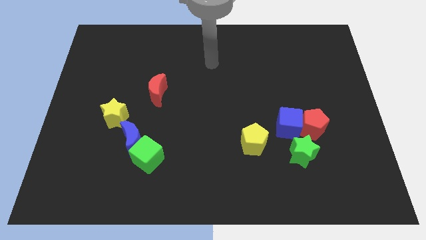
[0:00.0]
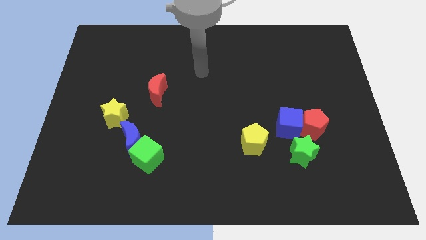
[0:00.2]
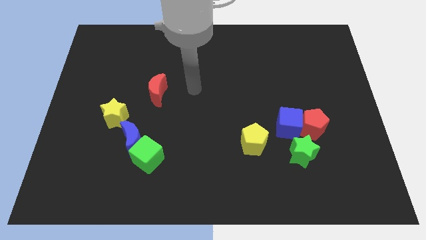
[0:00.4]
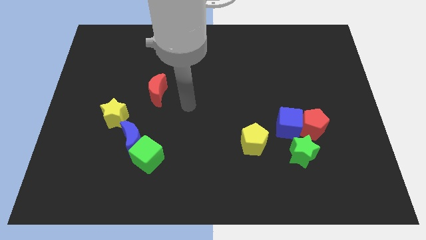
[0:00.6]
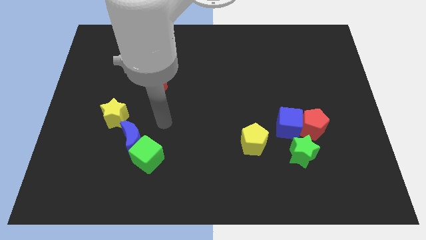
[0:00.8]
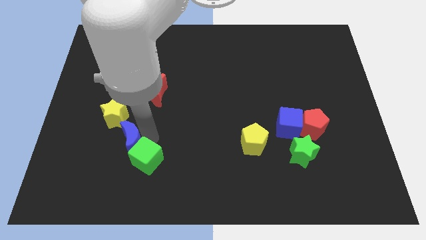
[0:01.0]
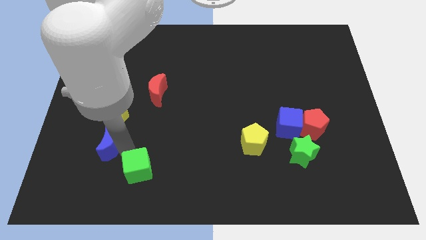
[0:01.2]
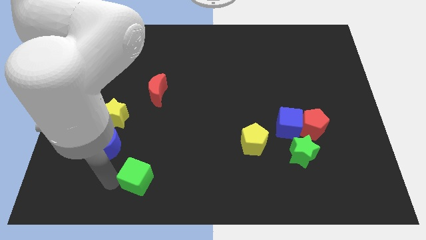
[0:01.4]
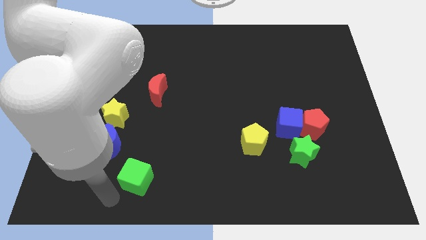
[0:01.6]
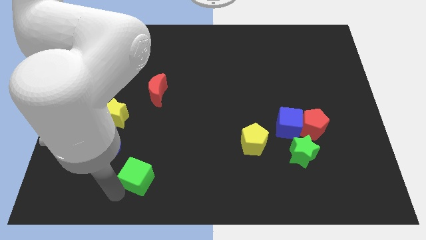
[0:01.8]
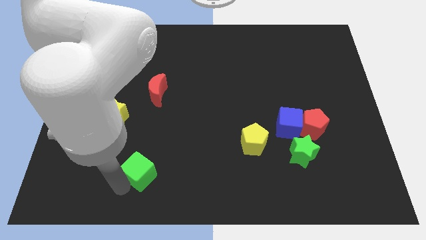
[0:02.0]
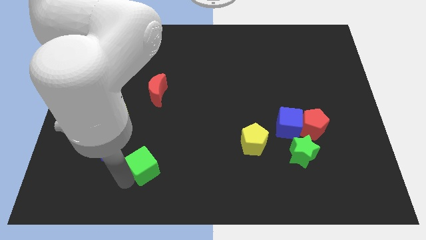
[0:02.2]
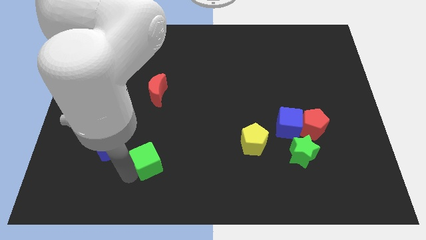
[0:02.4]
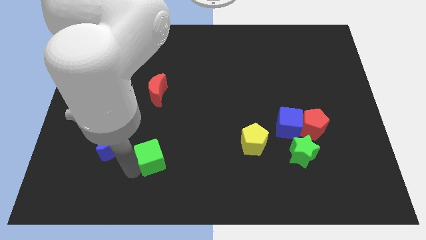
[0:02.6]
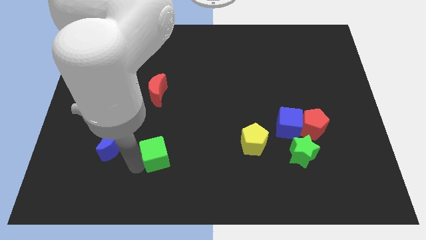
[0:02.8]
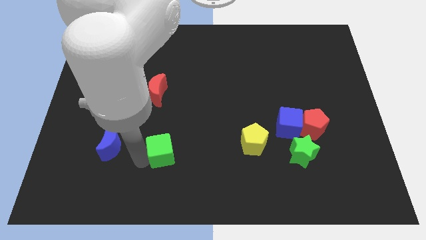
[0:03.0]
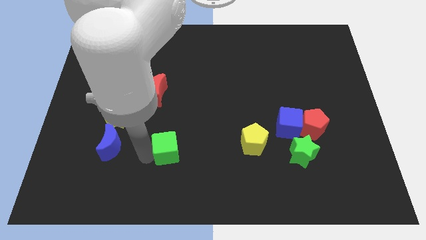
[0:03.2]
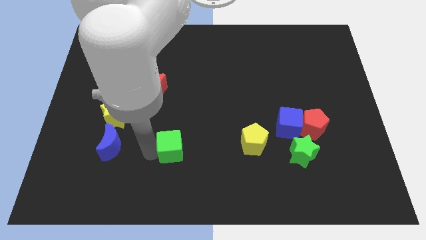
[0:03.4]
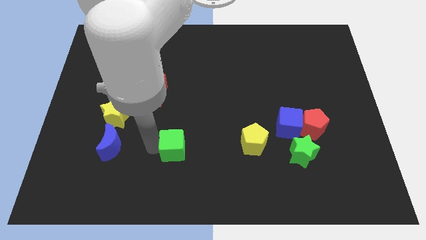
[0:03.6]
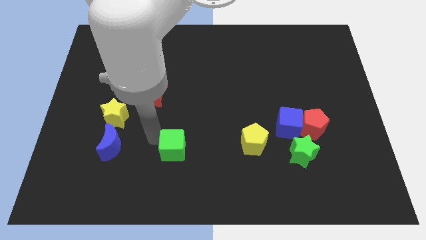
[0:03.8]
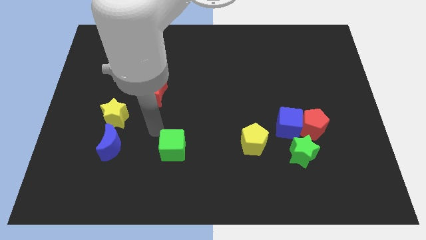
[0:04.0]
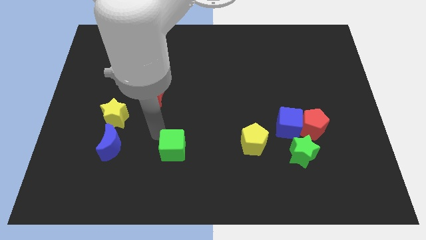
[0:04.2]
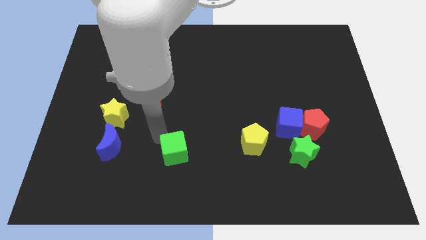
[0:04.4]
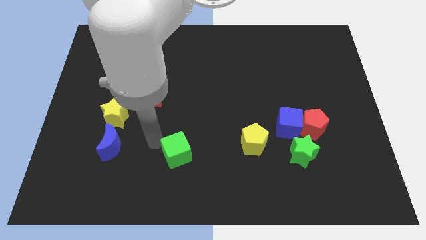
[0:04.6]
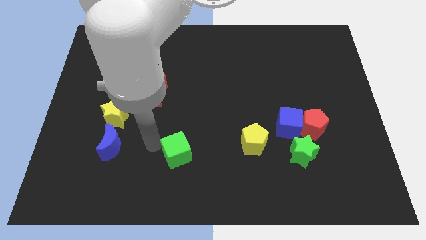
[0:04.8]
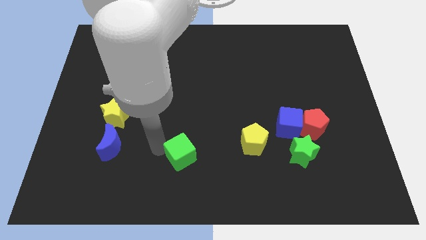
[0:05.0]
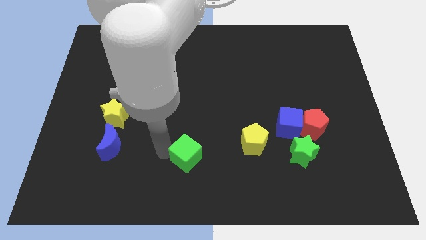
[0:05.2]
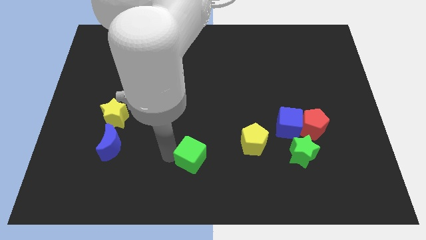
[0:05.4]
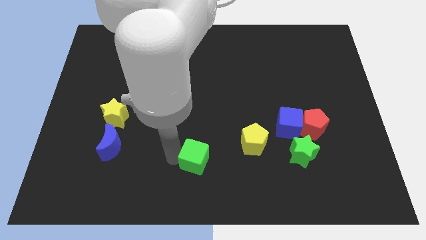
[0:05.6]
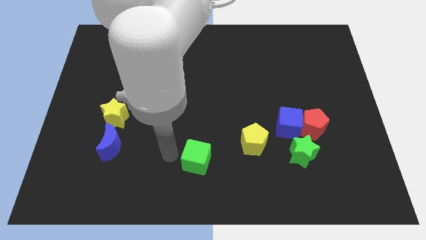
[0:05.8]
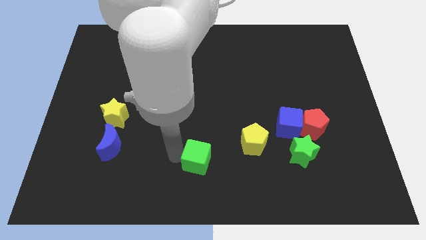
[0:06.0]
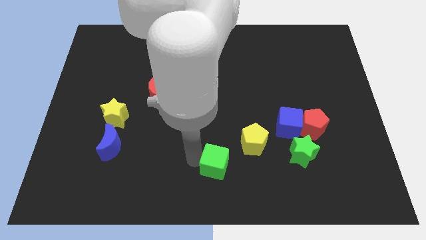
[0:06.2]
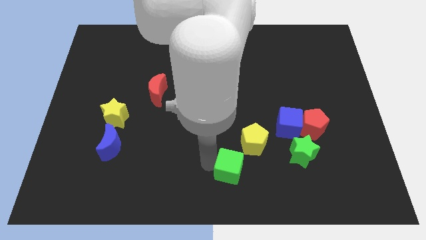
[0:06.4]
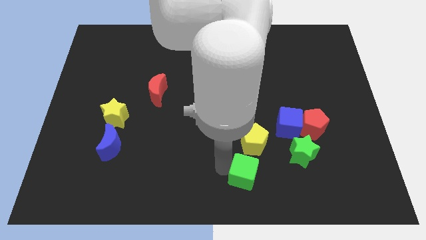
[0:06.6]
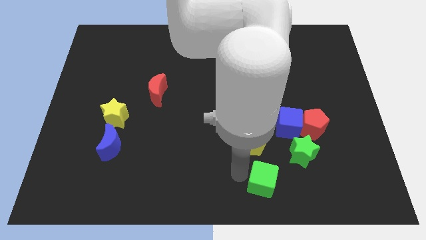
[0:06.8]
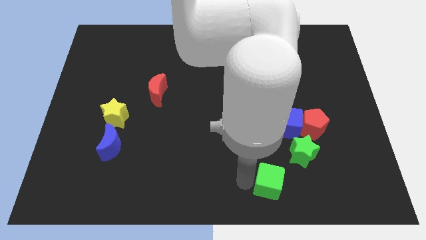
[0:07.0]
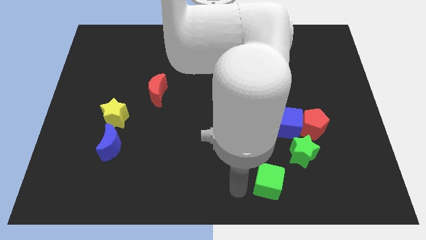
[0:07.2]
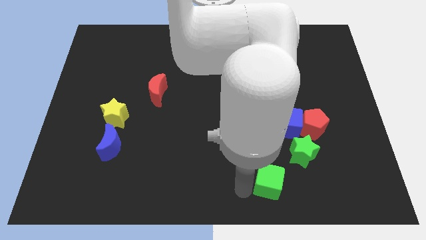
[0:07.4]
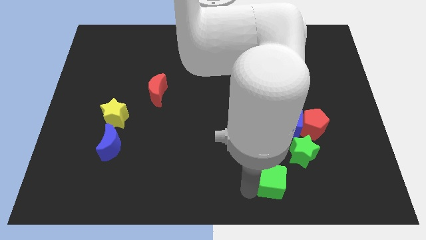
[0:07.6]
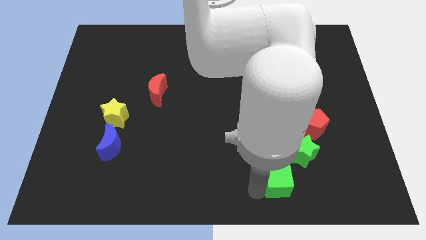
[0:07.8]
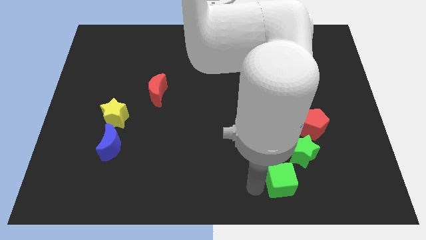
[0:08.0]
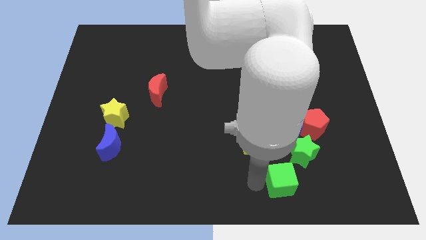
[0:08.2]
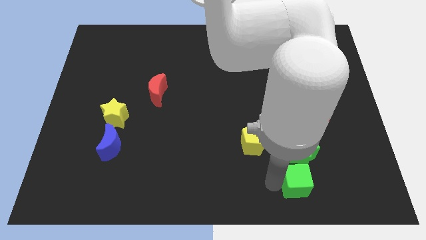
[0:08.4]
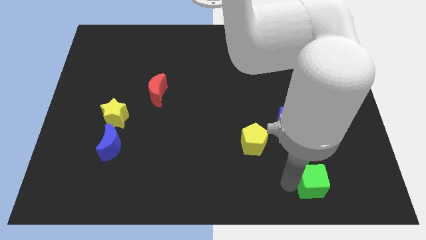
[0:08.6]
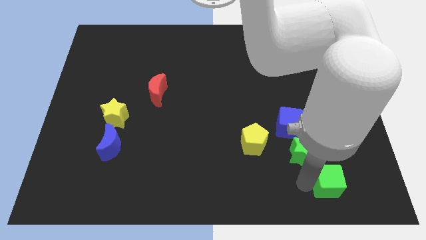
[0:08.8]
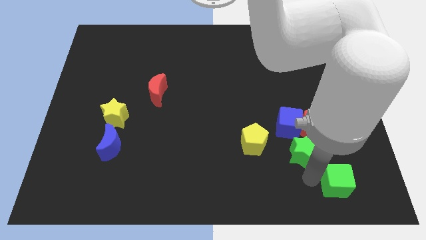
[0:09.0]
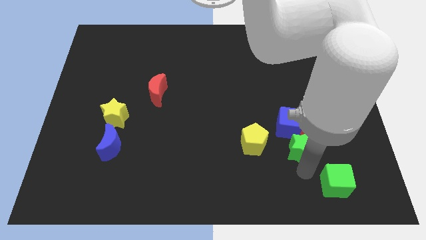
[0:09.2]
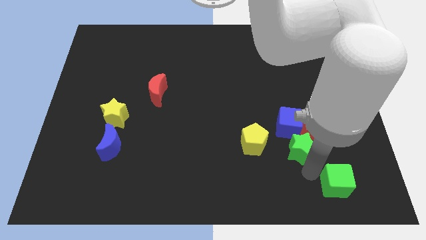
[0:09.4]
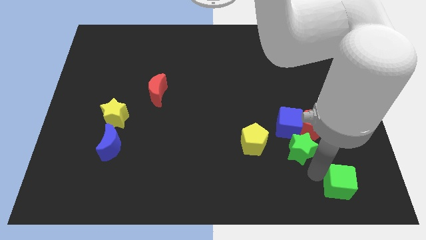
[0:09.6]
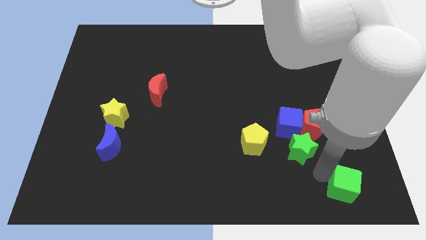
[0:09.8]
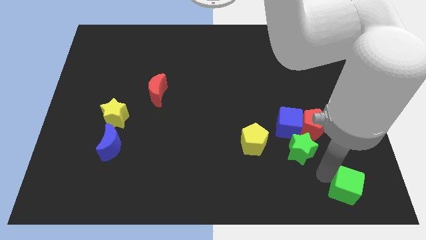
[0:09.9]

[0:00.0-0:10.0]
slide the green cube to the bottom right of the board

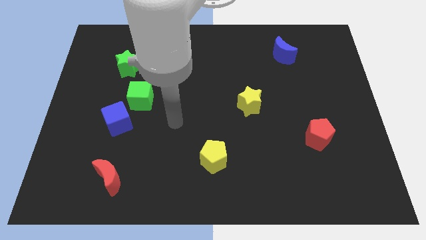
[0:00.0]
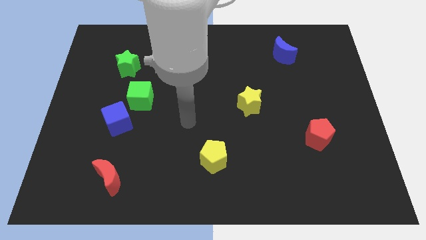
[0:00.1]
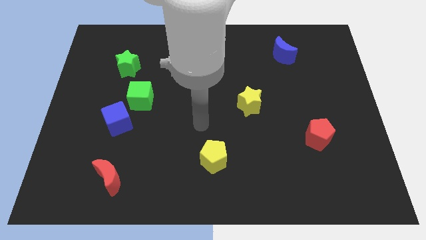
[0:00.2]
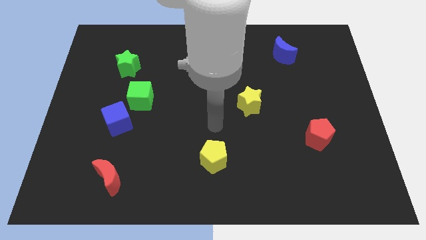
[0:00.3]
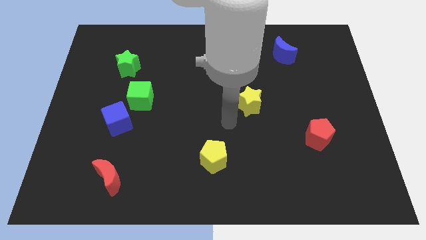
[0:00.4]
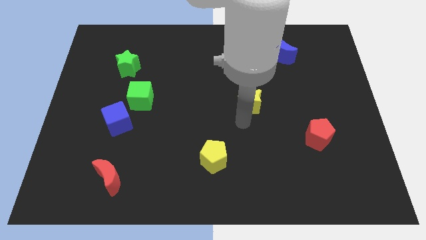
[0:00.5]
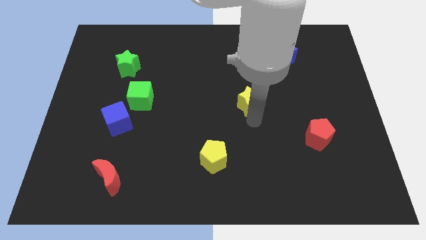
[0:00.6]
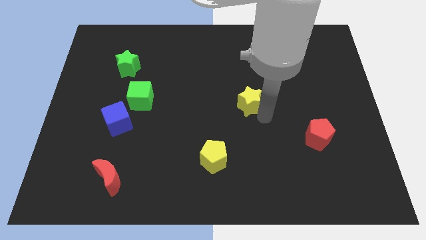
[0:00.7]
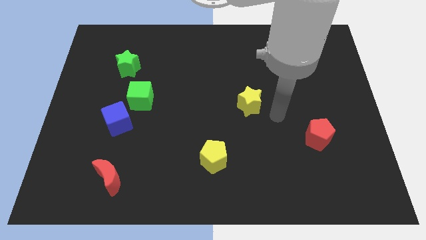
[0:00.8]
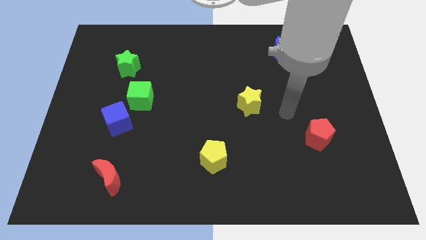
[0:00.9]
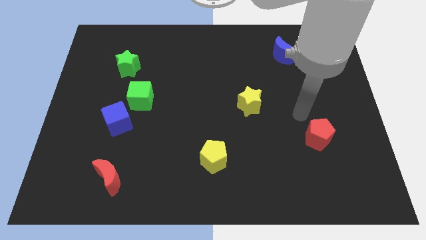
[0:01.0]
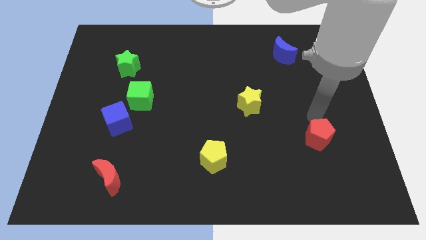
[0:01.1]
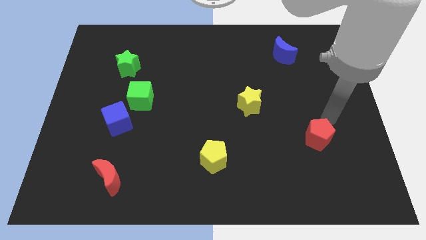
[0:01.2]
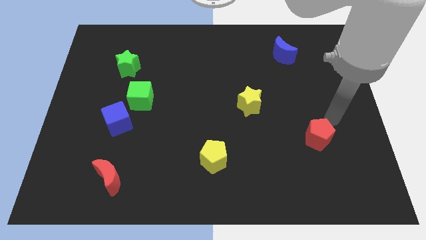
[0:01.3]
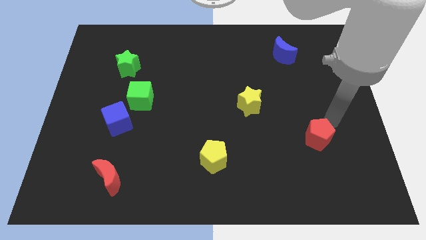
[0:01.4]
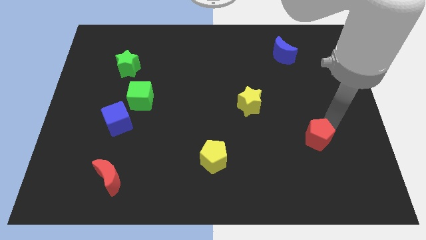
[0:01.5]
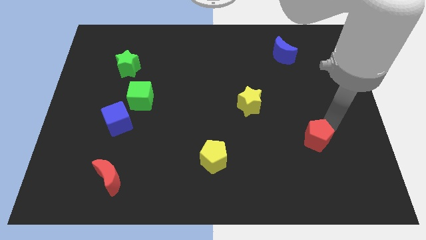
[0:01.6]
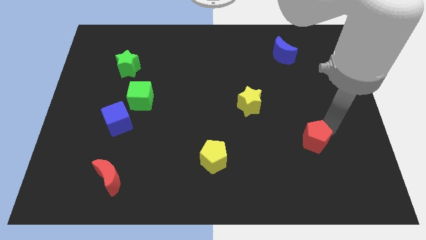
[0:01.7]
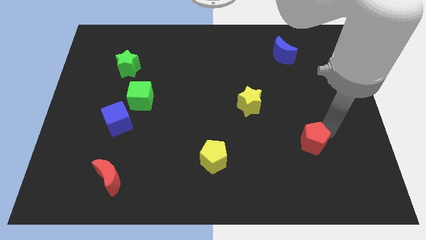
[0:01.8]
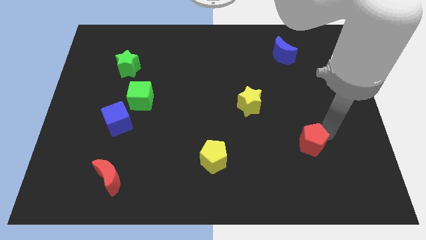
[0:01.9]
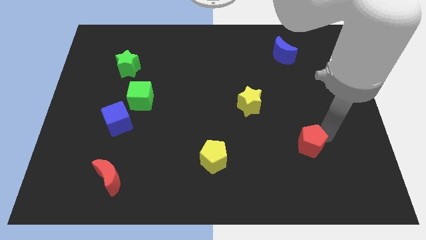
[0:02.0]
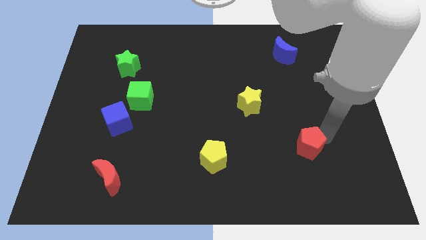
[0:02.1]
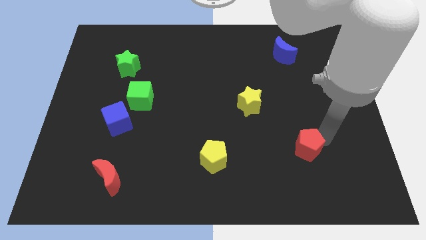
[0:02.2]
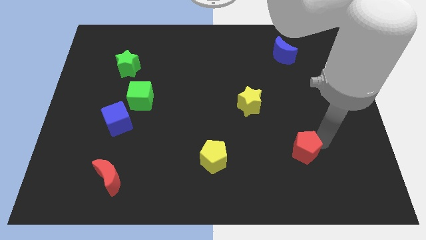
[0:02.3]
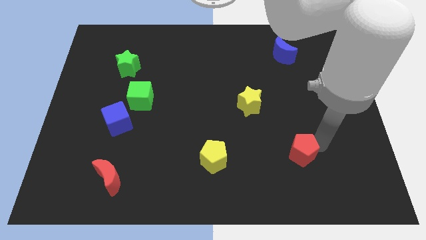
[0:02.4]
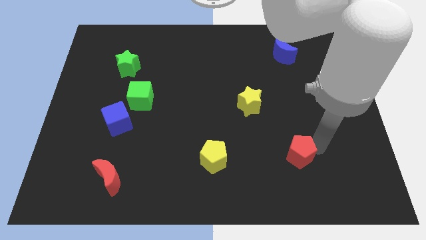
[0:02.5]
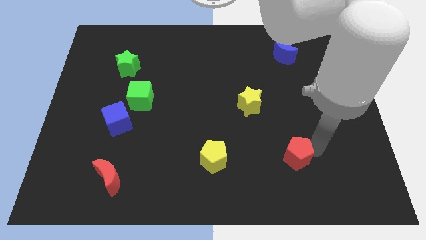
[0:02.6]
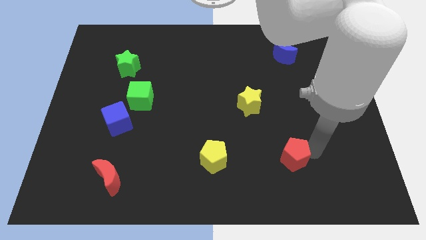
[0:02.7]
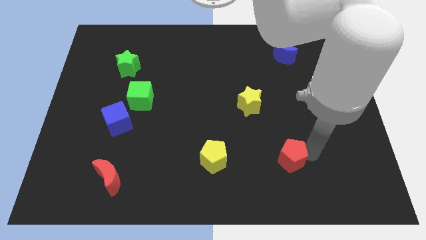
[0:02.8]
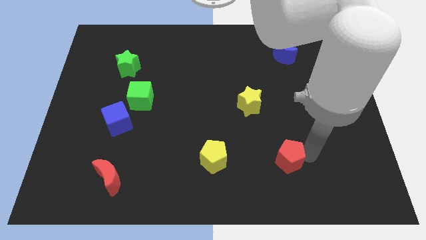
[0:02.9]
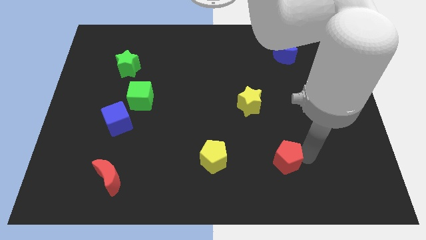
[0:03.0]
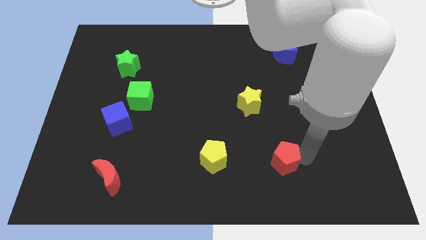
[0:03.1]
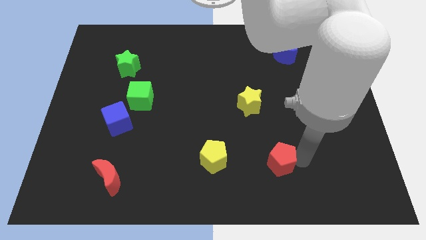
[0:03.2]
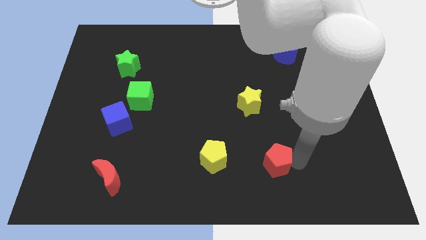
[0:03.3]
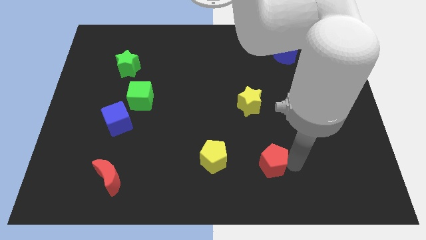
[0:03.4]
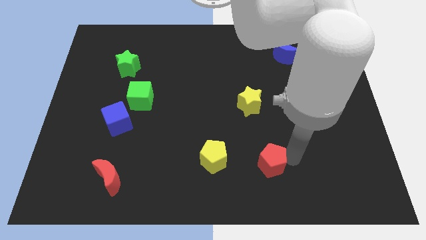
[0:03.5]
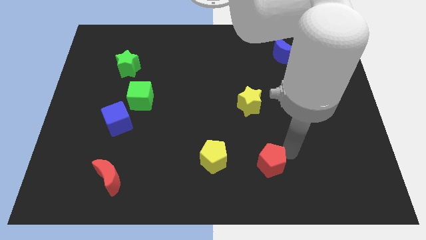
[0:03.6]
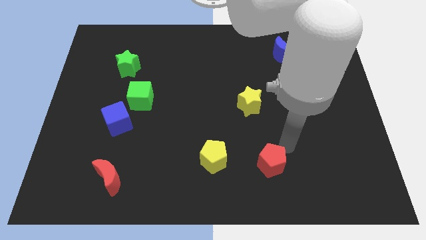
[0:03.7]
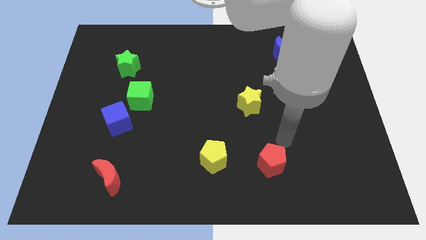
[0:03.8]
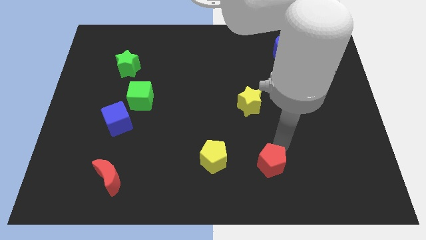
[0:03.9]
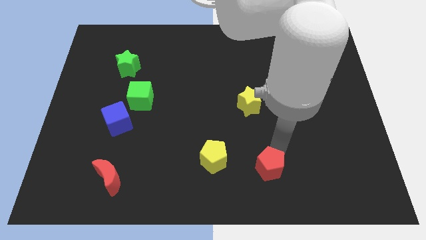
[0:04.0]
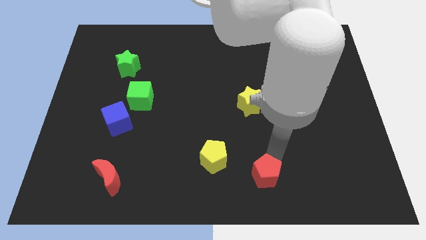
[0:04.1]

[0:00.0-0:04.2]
put the red pentagon to the bottom side
